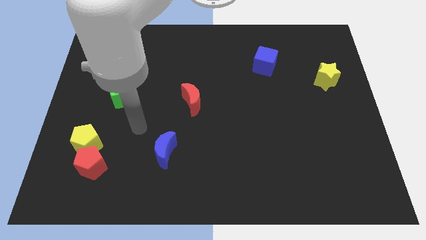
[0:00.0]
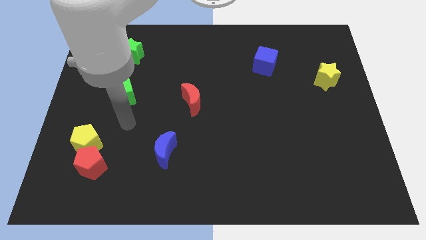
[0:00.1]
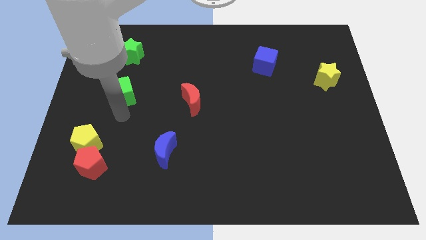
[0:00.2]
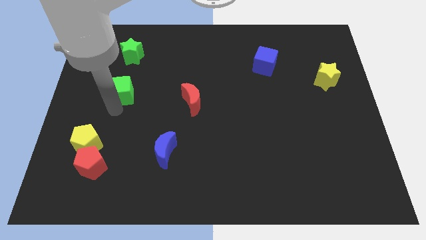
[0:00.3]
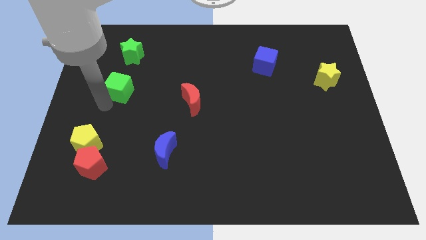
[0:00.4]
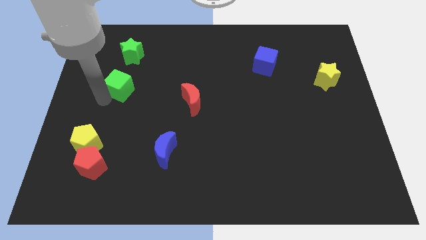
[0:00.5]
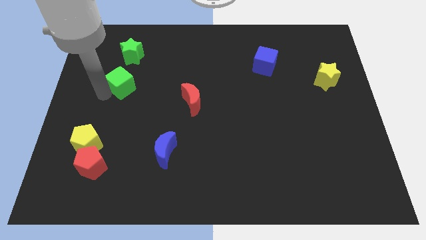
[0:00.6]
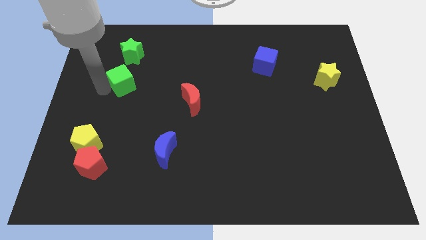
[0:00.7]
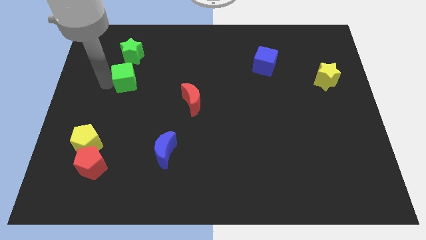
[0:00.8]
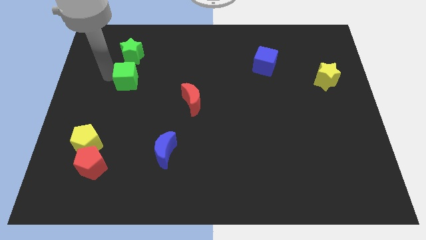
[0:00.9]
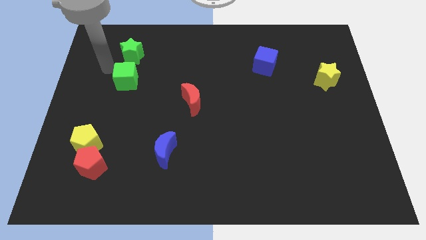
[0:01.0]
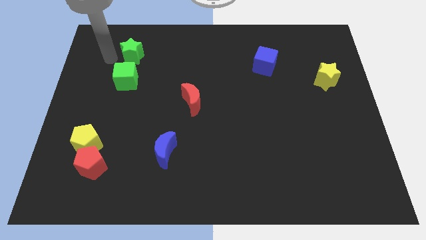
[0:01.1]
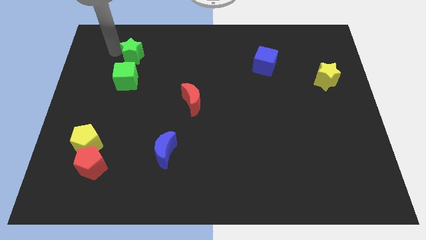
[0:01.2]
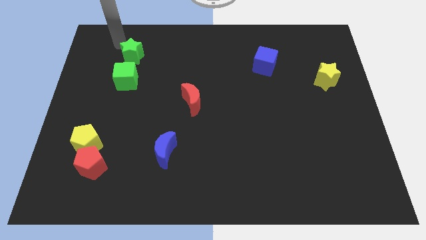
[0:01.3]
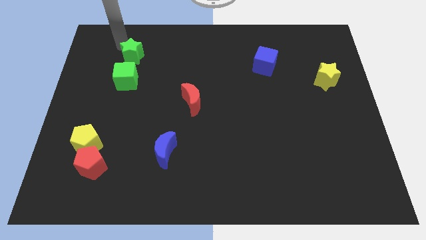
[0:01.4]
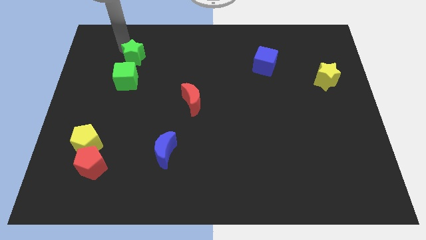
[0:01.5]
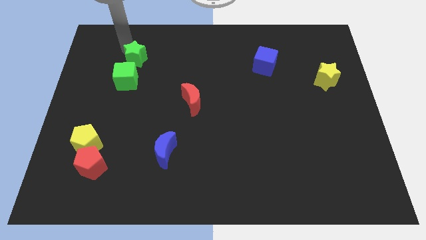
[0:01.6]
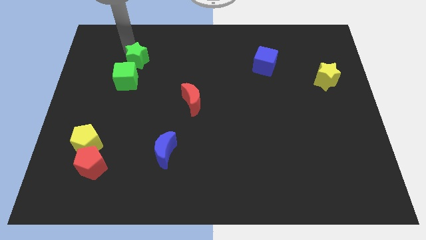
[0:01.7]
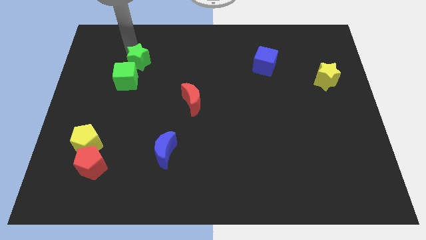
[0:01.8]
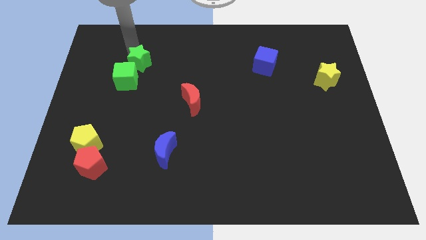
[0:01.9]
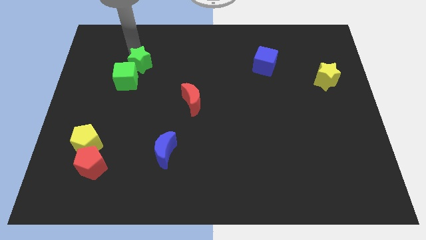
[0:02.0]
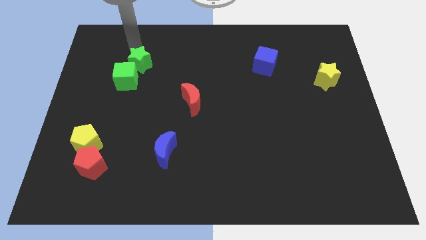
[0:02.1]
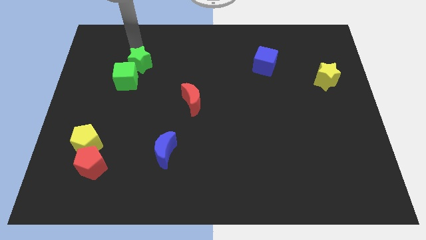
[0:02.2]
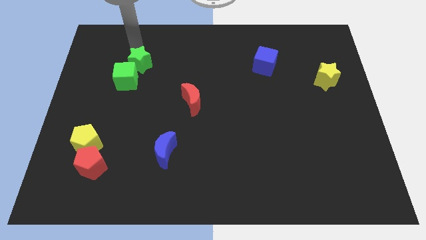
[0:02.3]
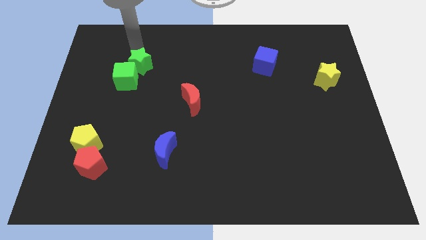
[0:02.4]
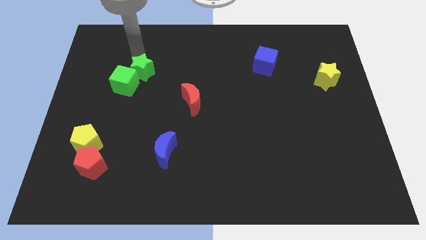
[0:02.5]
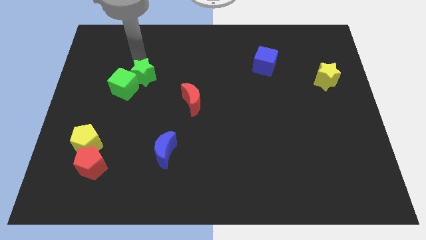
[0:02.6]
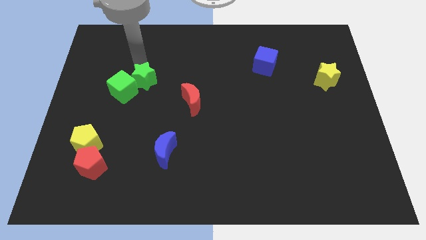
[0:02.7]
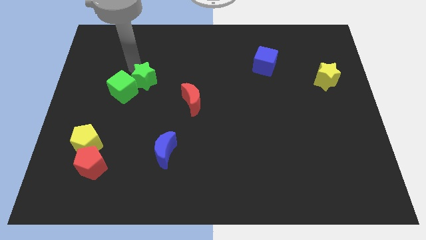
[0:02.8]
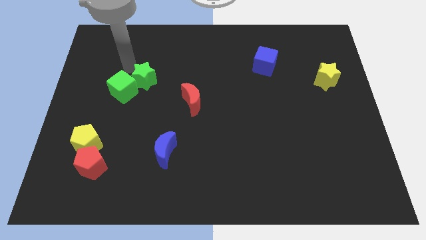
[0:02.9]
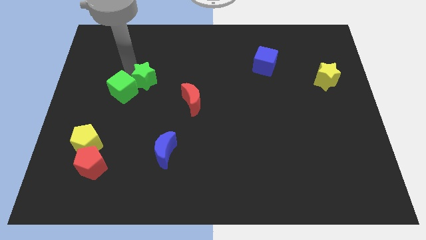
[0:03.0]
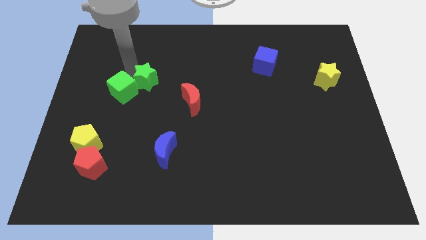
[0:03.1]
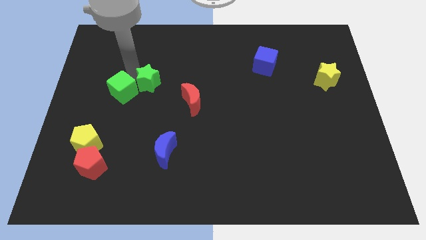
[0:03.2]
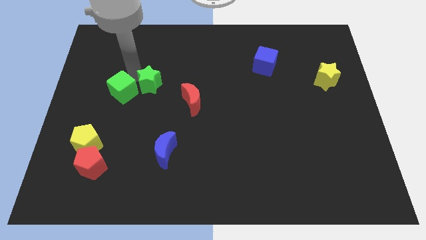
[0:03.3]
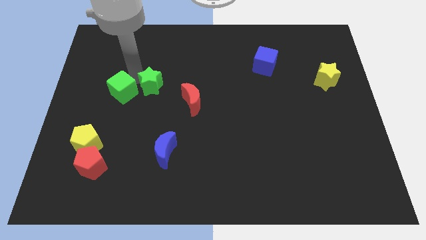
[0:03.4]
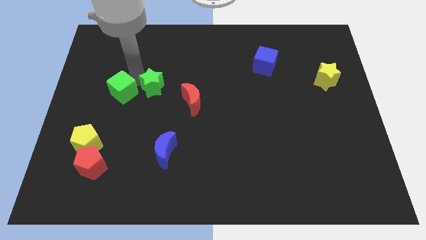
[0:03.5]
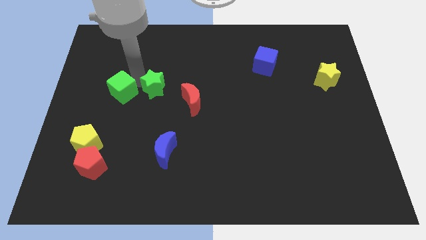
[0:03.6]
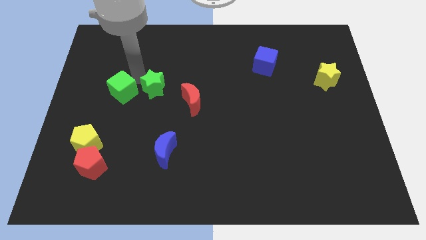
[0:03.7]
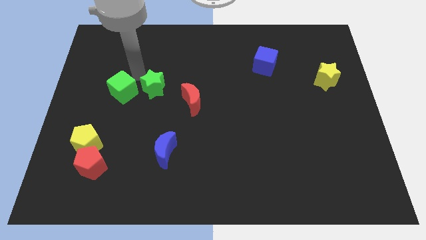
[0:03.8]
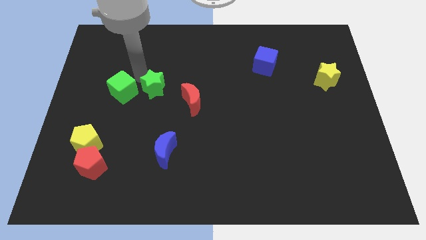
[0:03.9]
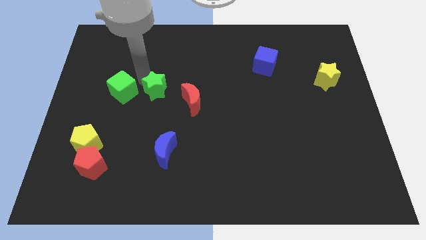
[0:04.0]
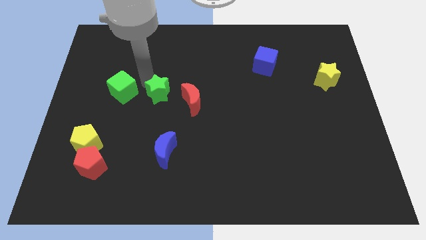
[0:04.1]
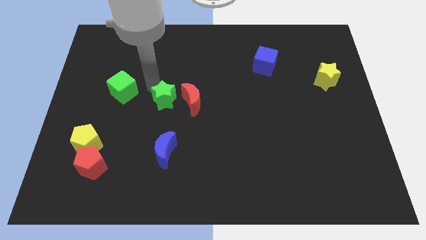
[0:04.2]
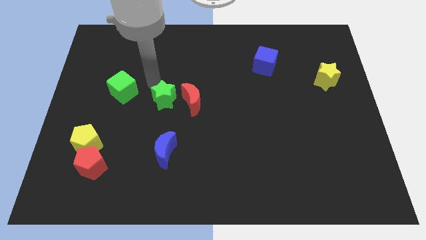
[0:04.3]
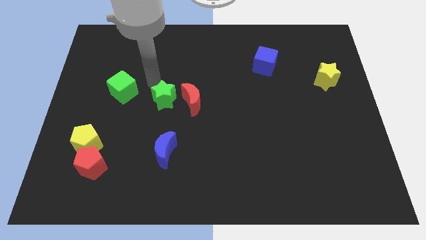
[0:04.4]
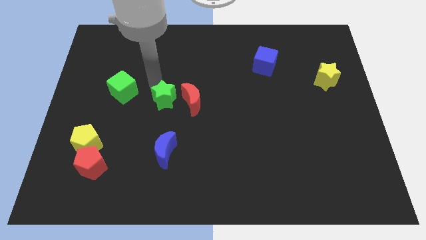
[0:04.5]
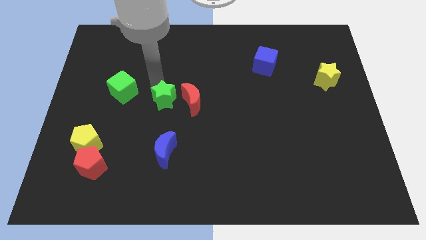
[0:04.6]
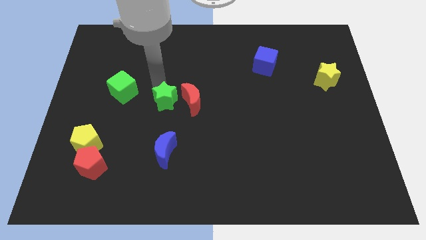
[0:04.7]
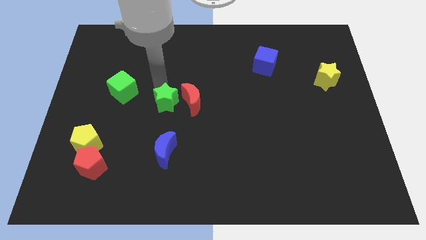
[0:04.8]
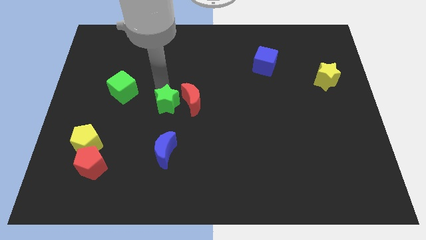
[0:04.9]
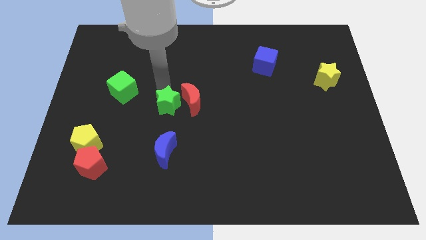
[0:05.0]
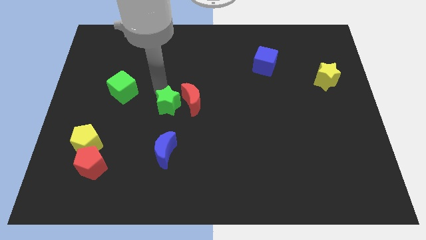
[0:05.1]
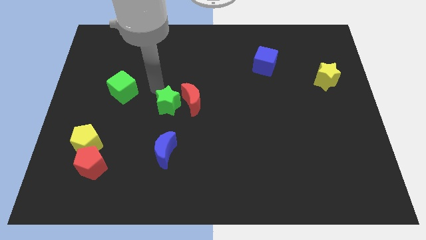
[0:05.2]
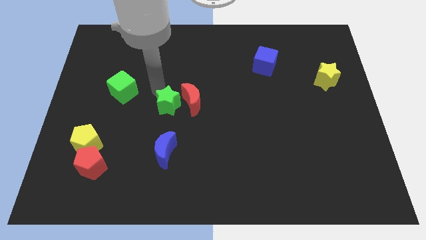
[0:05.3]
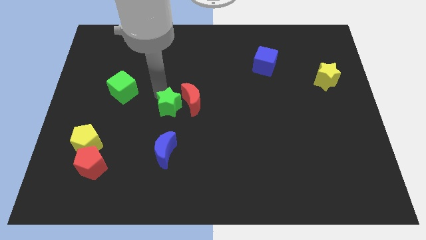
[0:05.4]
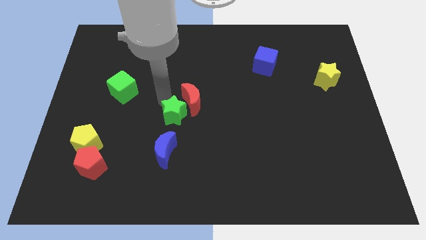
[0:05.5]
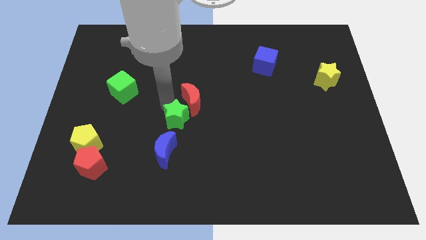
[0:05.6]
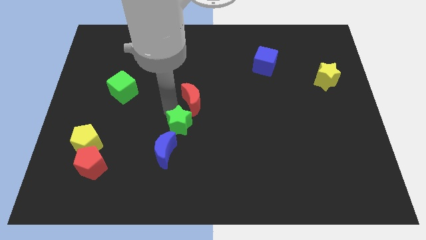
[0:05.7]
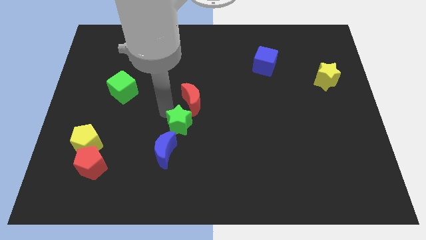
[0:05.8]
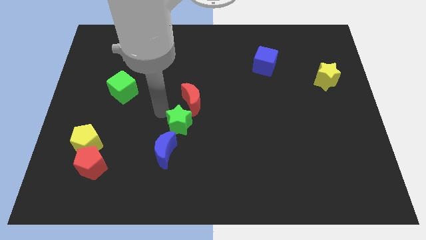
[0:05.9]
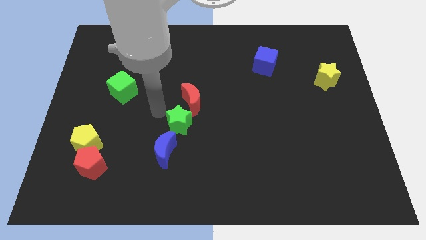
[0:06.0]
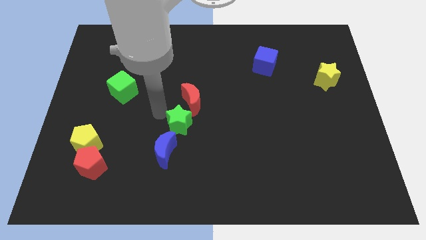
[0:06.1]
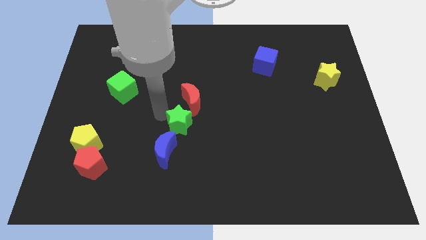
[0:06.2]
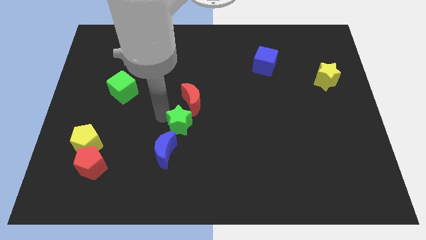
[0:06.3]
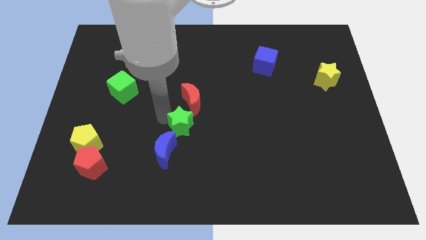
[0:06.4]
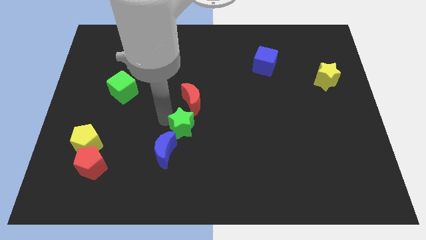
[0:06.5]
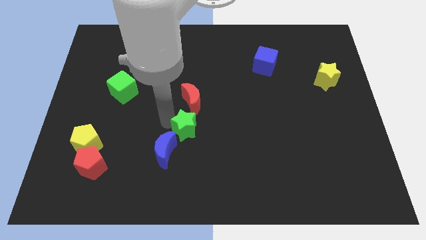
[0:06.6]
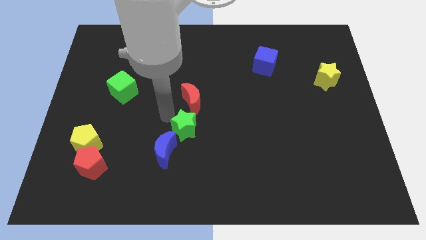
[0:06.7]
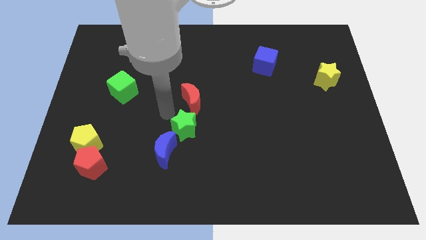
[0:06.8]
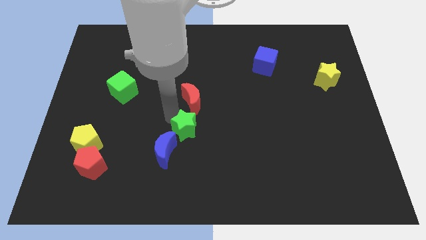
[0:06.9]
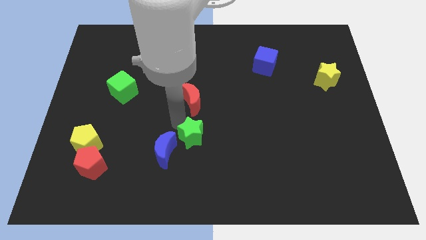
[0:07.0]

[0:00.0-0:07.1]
slide the green star right of the blue moon
